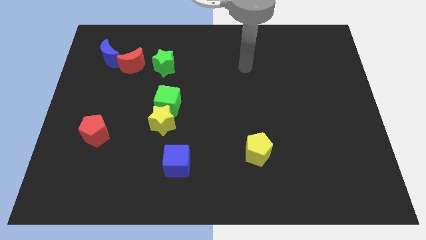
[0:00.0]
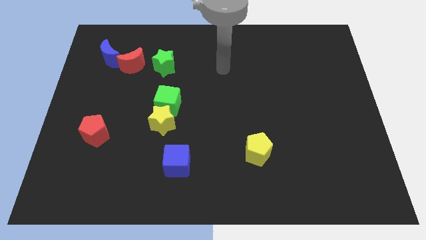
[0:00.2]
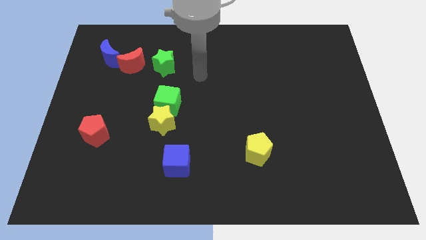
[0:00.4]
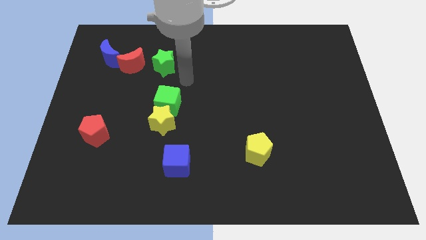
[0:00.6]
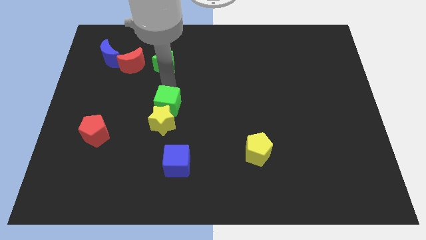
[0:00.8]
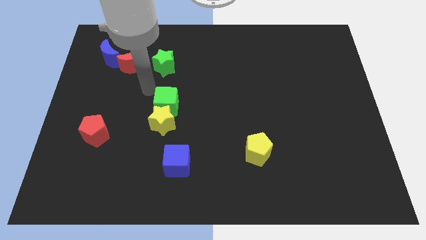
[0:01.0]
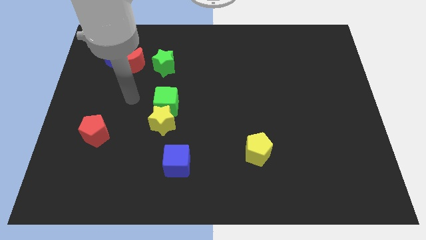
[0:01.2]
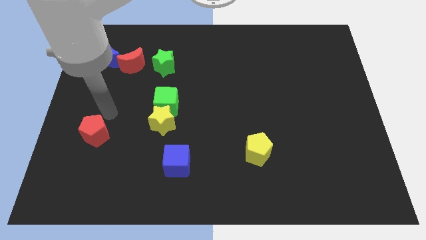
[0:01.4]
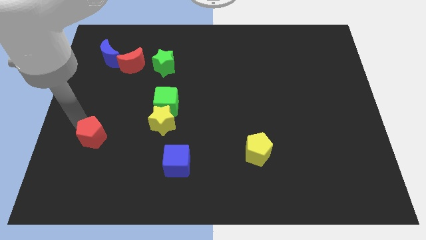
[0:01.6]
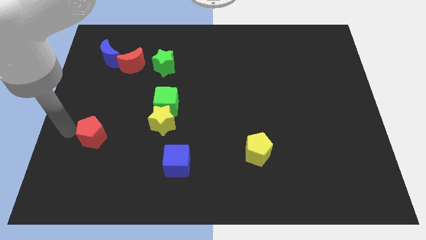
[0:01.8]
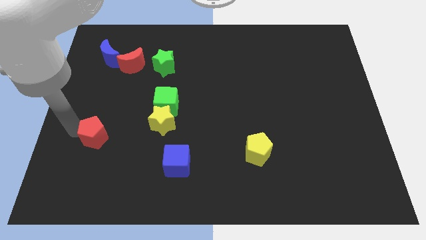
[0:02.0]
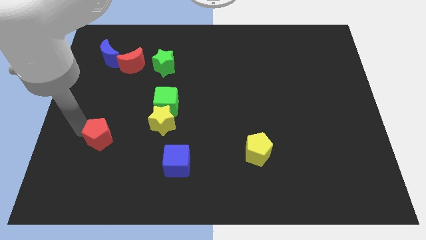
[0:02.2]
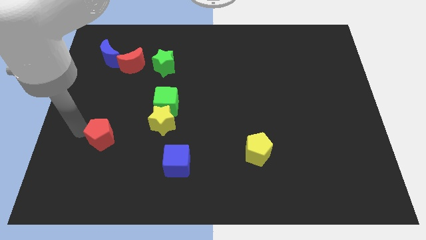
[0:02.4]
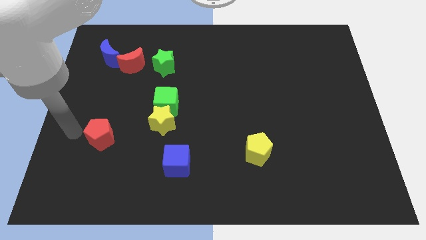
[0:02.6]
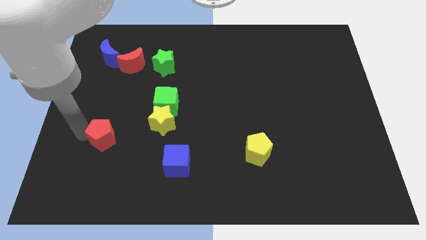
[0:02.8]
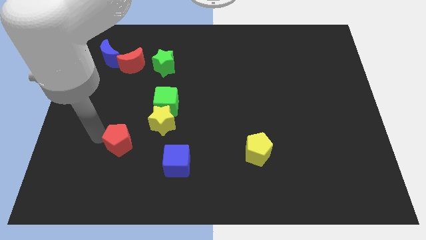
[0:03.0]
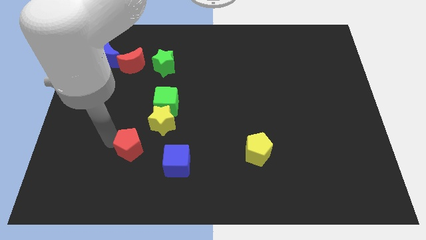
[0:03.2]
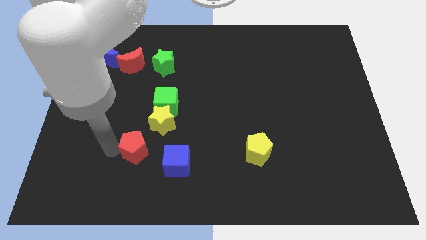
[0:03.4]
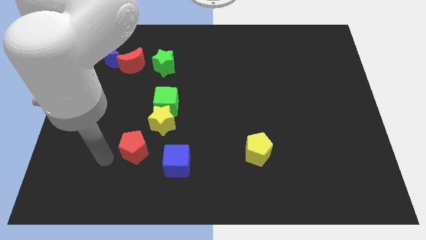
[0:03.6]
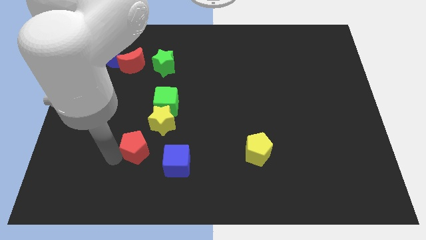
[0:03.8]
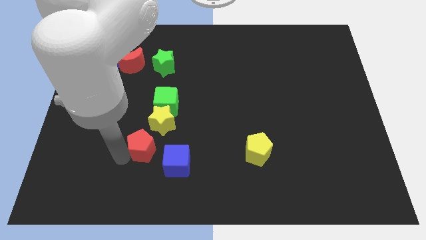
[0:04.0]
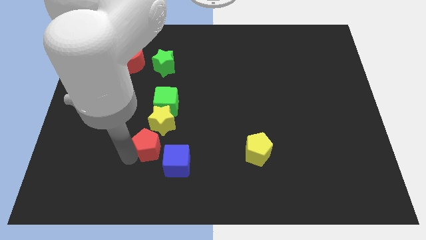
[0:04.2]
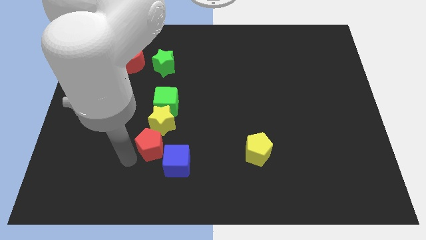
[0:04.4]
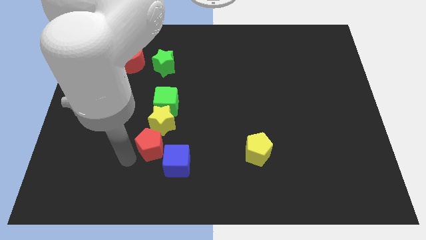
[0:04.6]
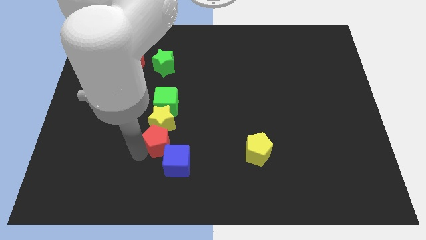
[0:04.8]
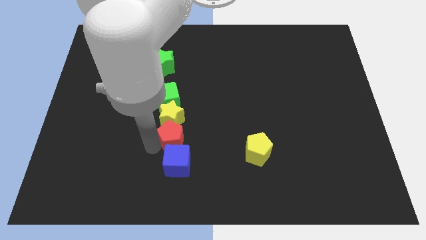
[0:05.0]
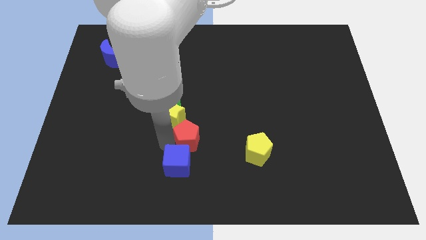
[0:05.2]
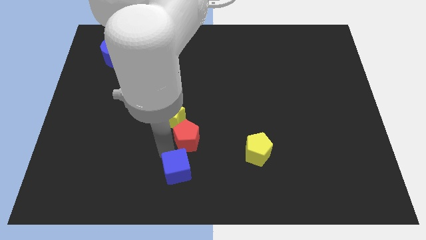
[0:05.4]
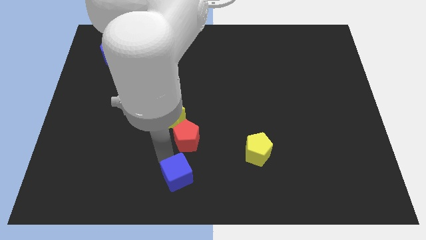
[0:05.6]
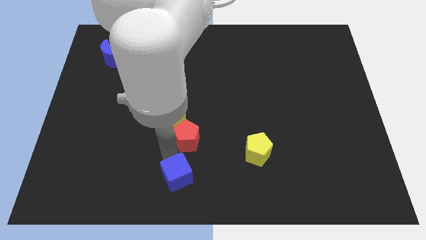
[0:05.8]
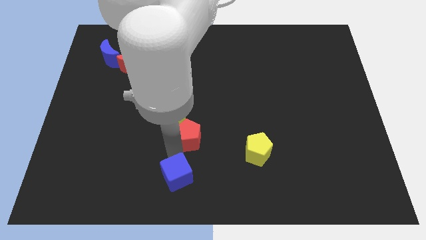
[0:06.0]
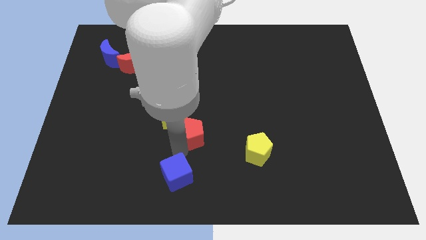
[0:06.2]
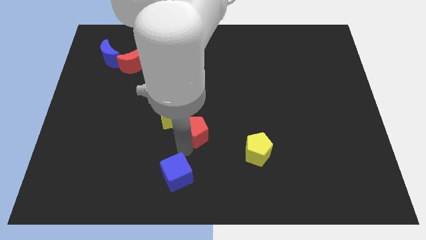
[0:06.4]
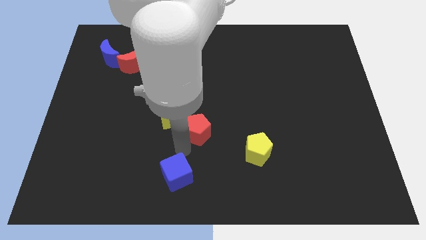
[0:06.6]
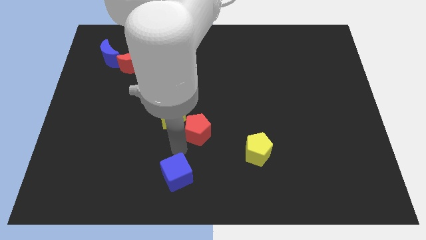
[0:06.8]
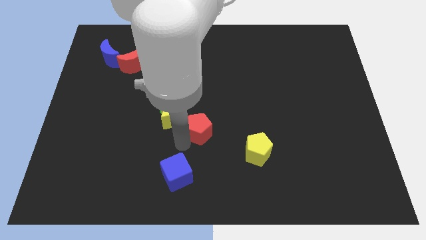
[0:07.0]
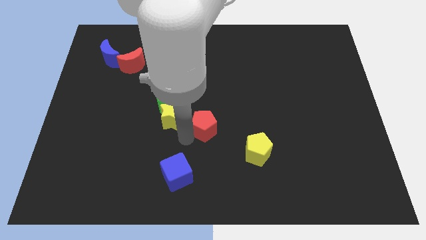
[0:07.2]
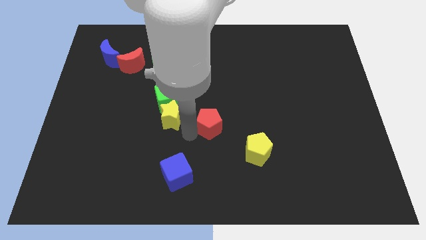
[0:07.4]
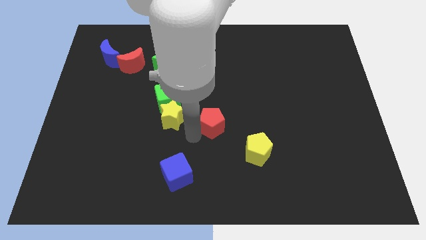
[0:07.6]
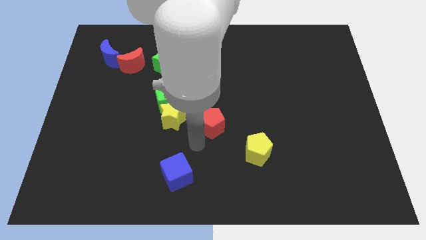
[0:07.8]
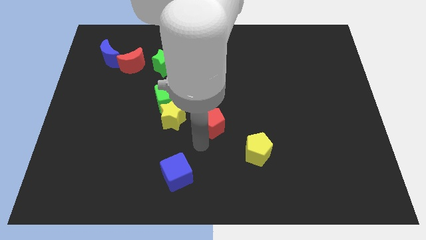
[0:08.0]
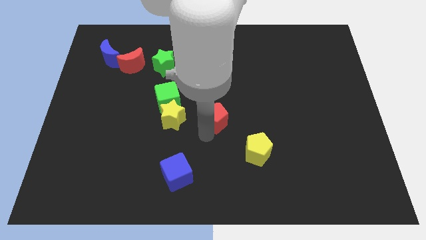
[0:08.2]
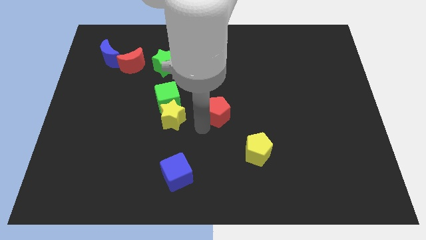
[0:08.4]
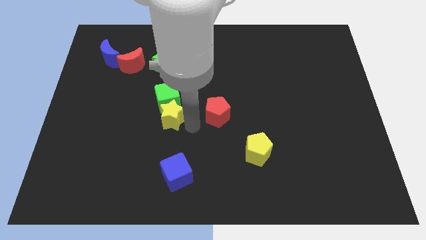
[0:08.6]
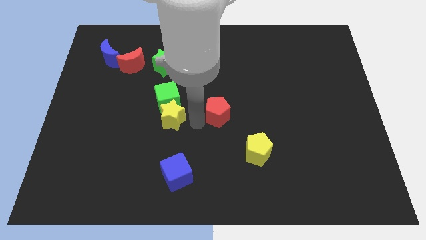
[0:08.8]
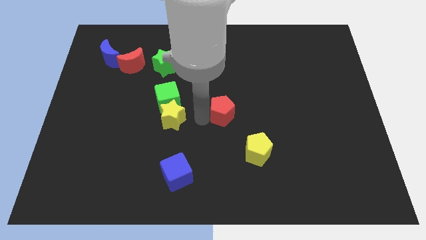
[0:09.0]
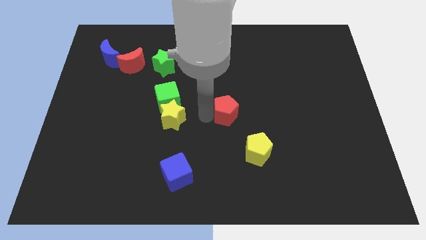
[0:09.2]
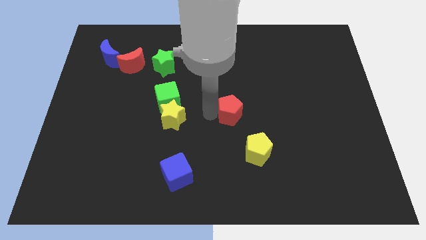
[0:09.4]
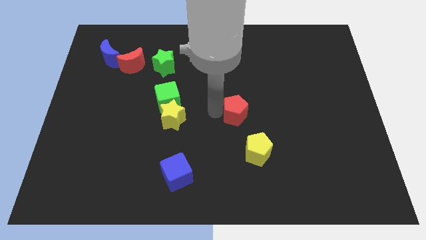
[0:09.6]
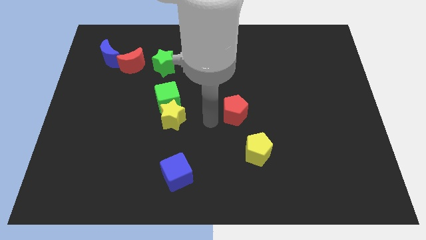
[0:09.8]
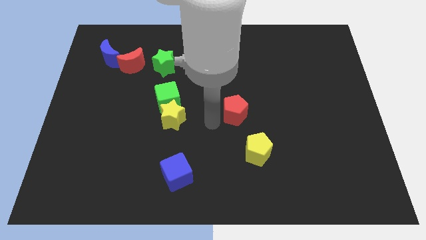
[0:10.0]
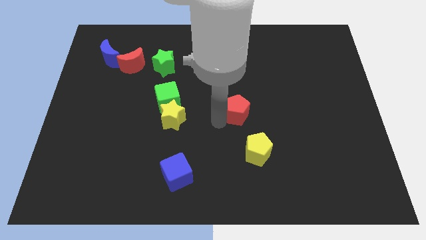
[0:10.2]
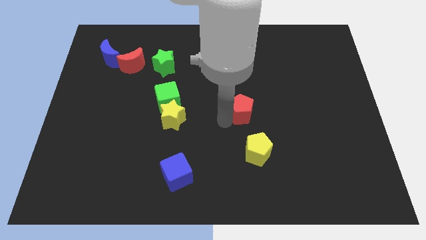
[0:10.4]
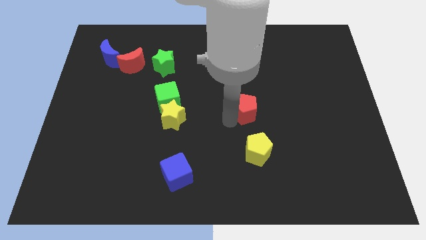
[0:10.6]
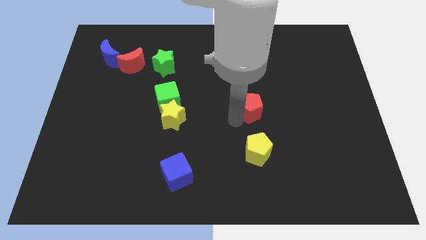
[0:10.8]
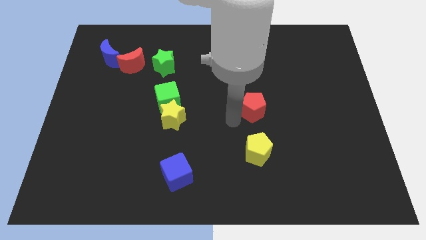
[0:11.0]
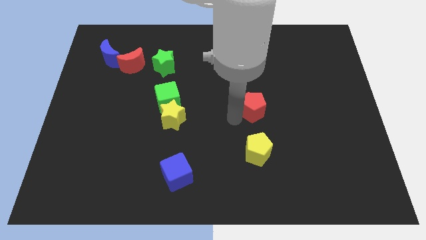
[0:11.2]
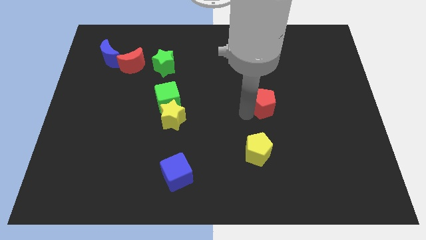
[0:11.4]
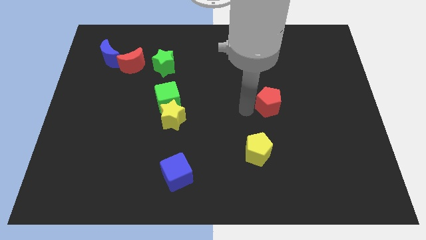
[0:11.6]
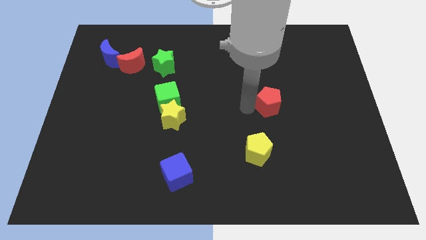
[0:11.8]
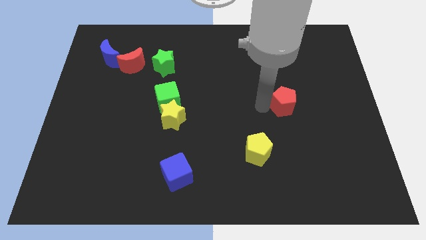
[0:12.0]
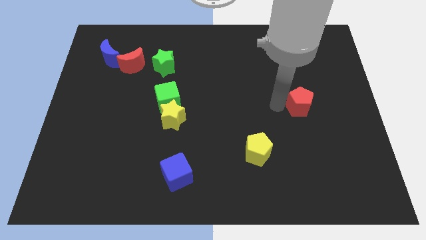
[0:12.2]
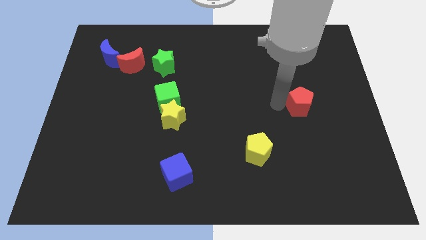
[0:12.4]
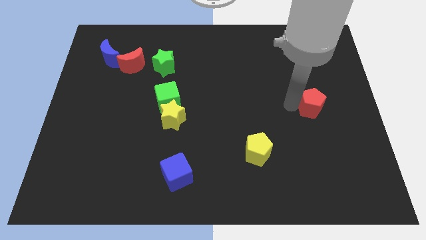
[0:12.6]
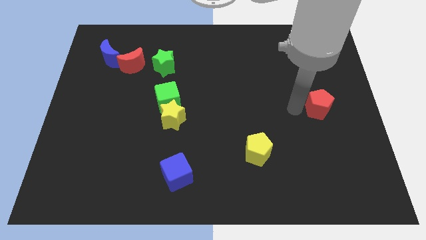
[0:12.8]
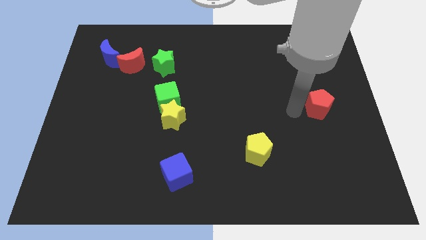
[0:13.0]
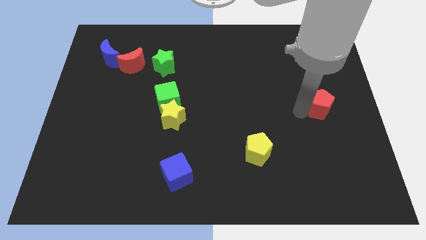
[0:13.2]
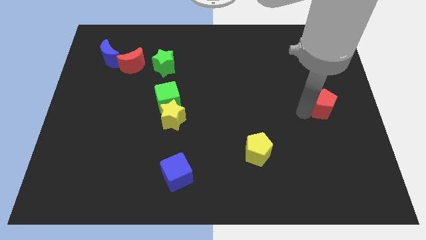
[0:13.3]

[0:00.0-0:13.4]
push the red pentagon to the right side
